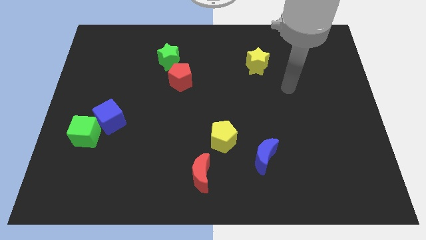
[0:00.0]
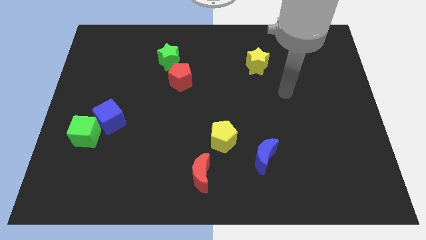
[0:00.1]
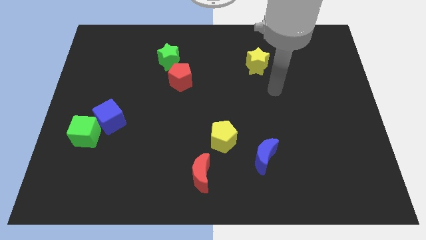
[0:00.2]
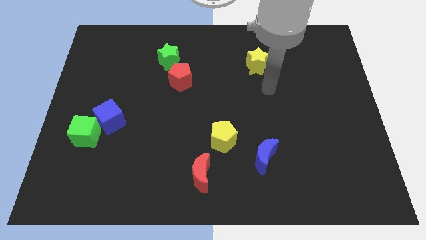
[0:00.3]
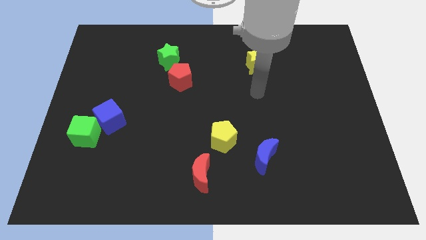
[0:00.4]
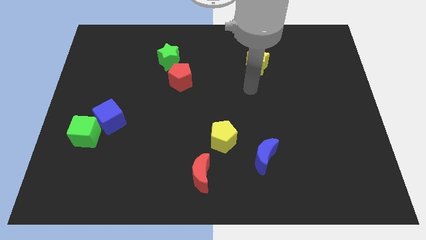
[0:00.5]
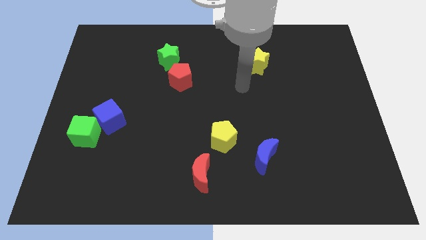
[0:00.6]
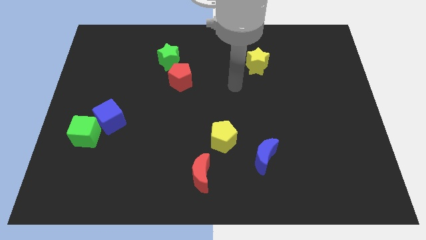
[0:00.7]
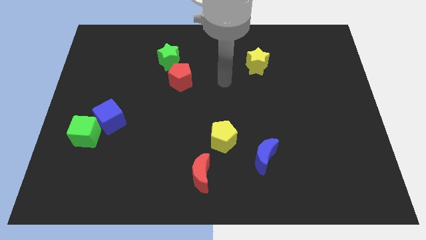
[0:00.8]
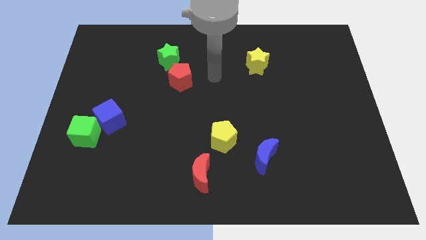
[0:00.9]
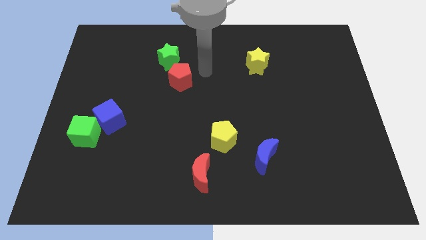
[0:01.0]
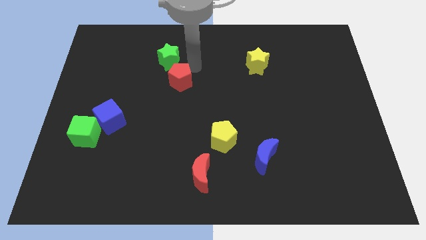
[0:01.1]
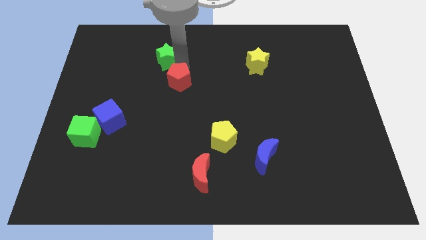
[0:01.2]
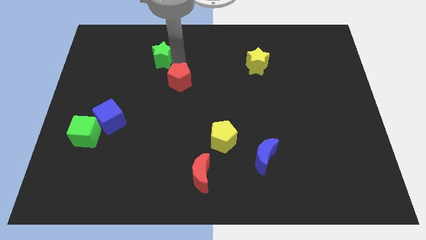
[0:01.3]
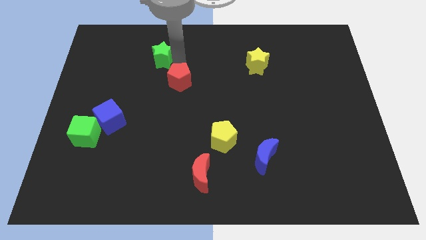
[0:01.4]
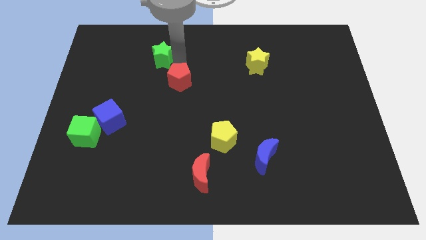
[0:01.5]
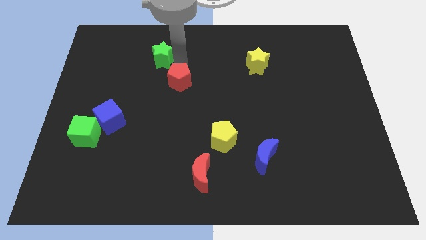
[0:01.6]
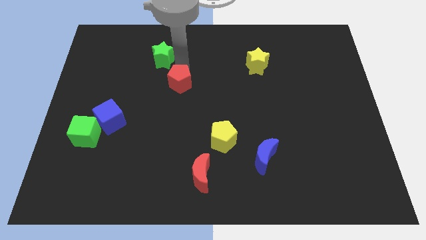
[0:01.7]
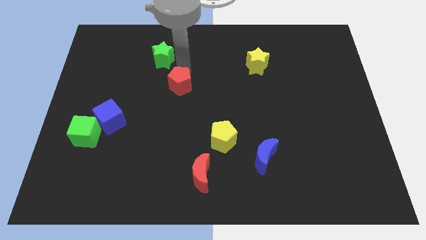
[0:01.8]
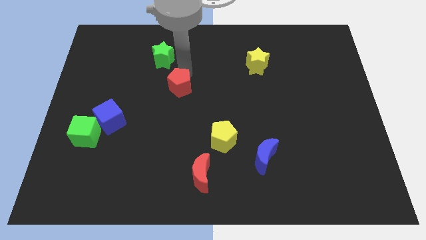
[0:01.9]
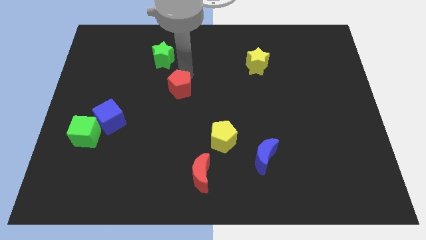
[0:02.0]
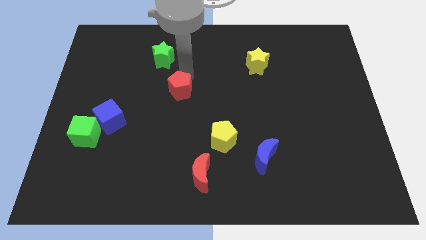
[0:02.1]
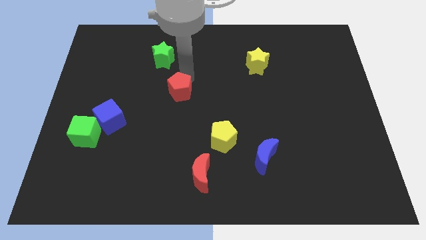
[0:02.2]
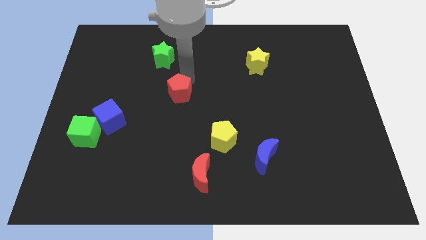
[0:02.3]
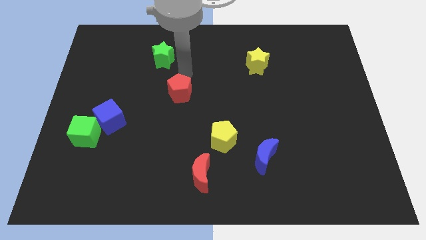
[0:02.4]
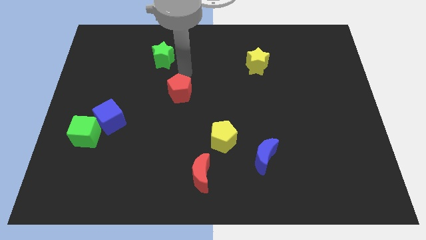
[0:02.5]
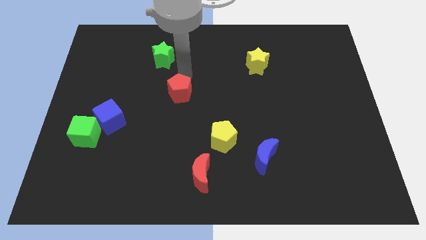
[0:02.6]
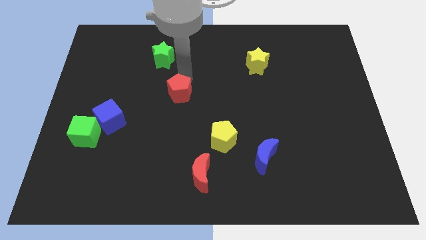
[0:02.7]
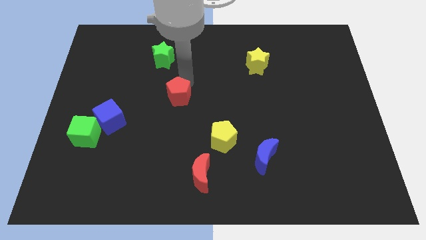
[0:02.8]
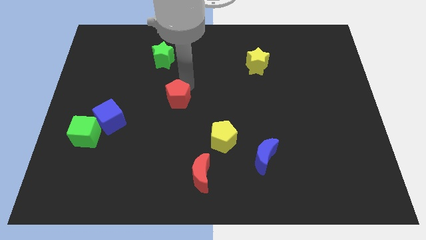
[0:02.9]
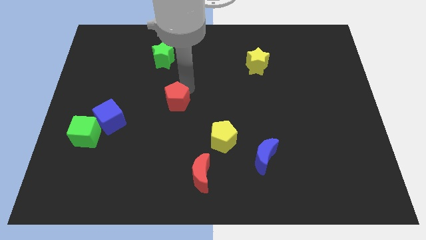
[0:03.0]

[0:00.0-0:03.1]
move the red pentagon down a little bit

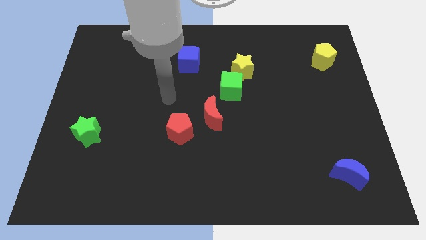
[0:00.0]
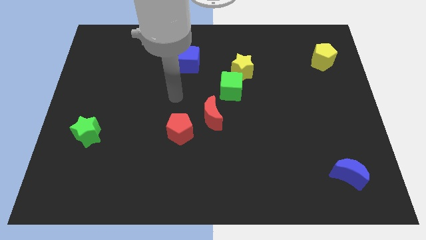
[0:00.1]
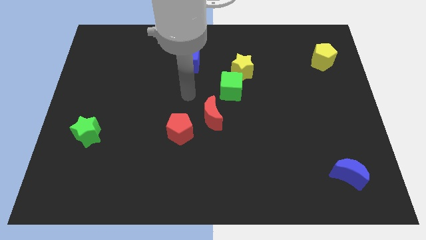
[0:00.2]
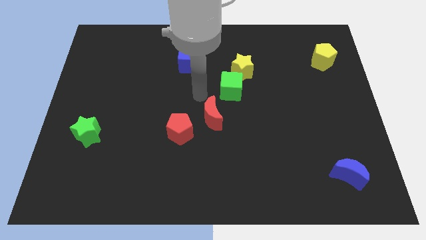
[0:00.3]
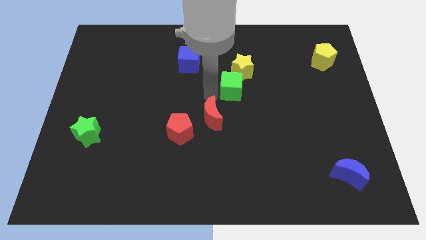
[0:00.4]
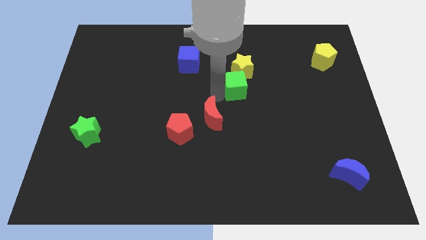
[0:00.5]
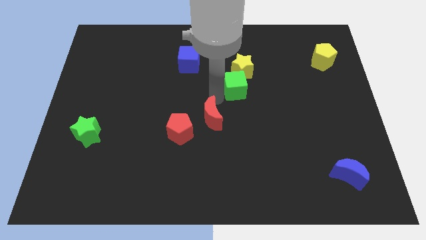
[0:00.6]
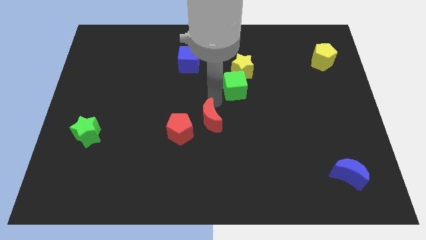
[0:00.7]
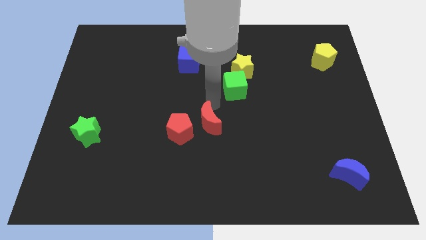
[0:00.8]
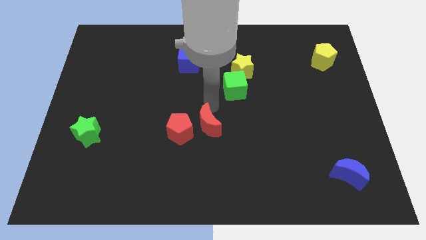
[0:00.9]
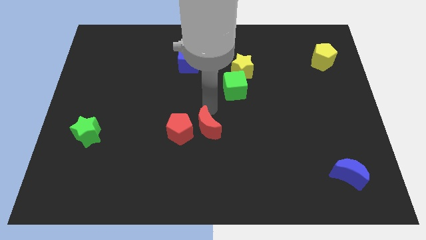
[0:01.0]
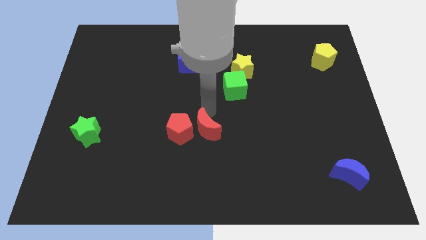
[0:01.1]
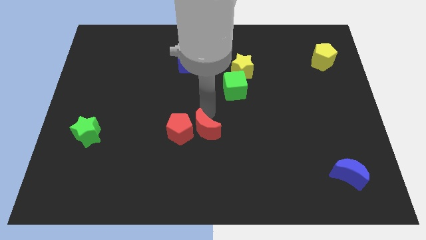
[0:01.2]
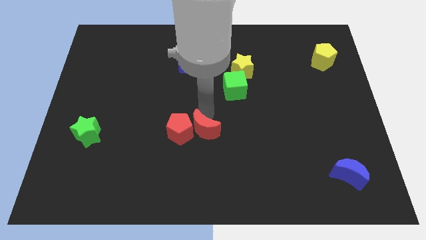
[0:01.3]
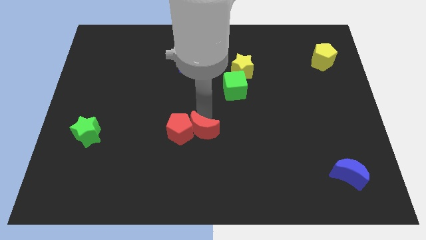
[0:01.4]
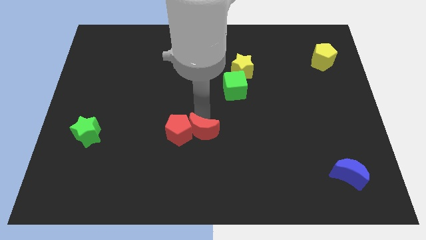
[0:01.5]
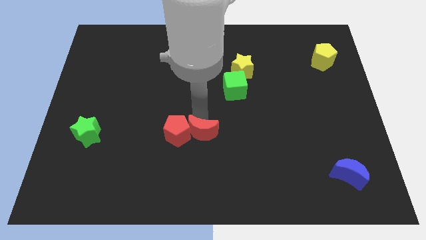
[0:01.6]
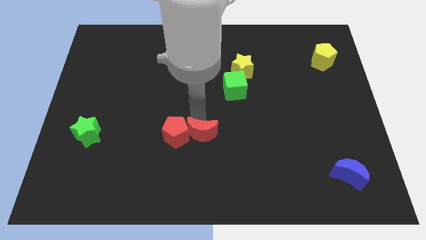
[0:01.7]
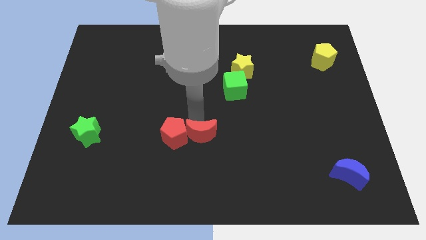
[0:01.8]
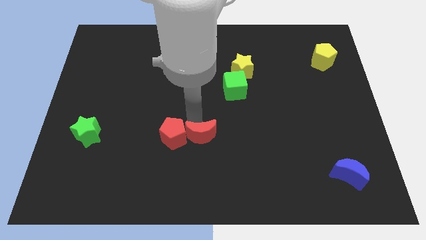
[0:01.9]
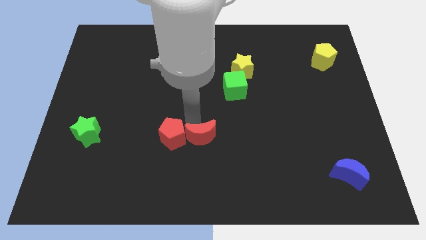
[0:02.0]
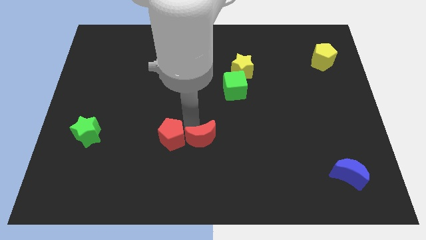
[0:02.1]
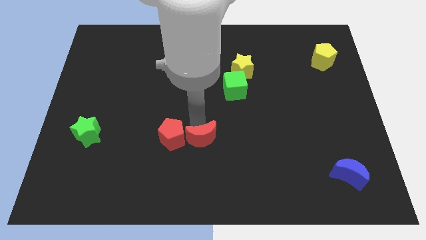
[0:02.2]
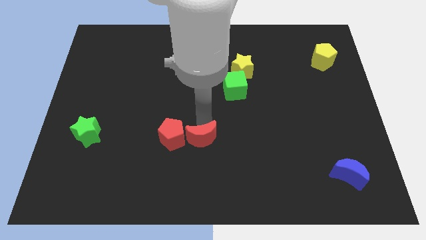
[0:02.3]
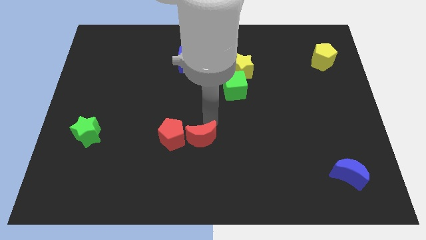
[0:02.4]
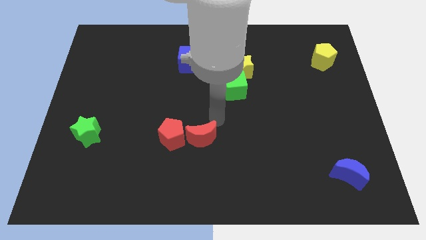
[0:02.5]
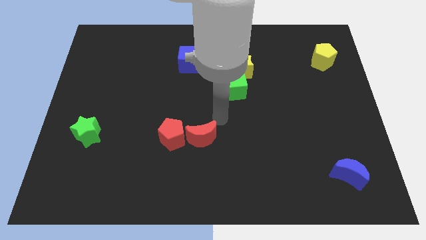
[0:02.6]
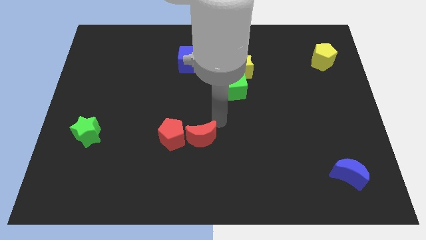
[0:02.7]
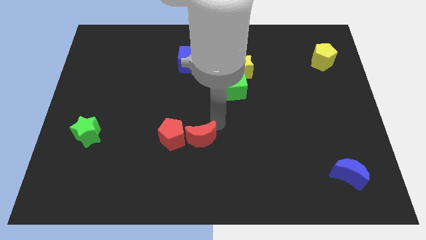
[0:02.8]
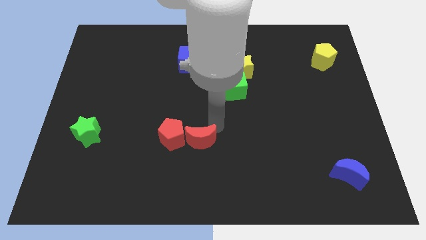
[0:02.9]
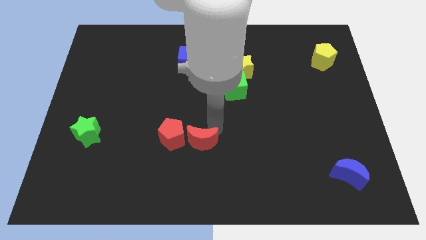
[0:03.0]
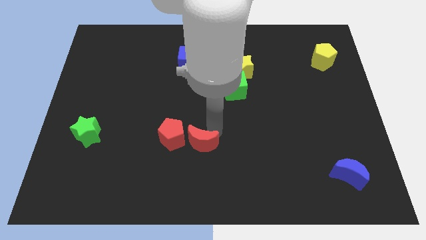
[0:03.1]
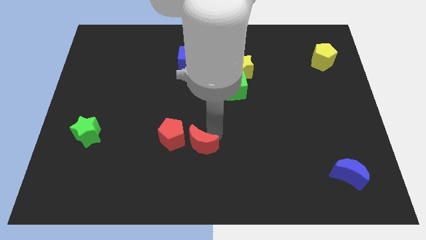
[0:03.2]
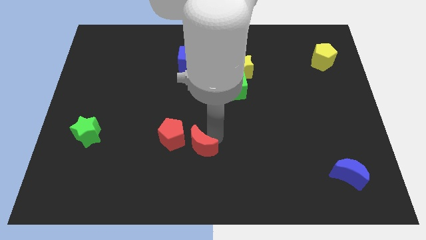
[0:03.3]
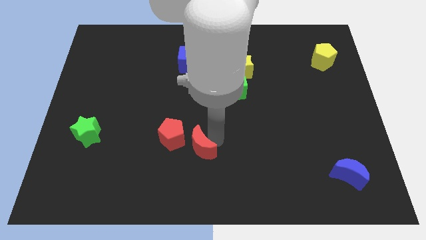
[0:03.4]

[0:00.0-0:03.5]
move the red moon downwards and to the left diagonally a little

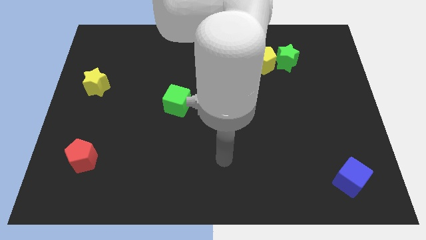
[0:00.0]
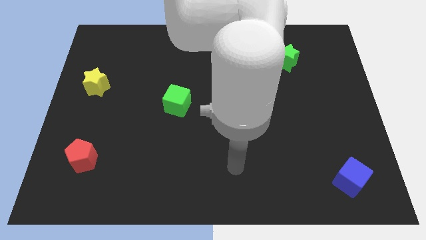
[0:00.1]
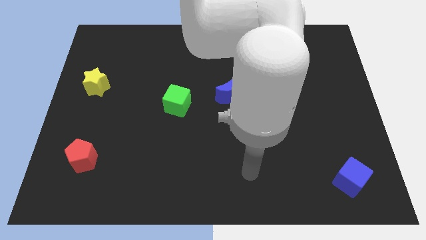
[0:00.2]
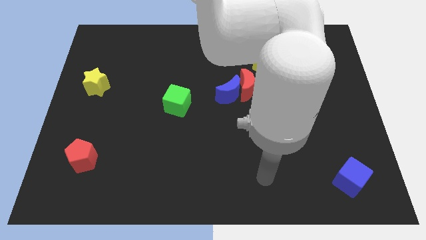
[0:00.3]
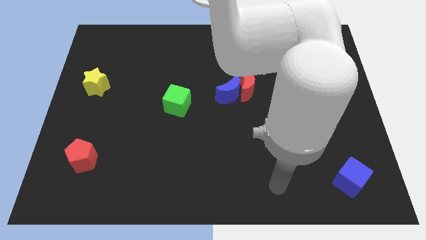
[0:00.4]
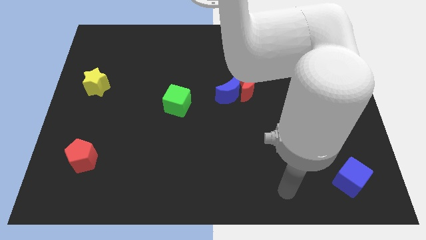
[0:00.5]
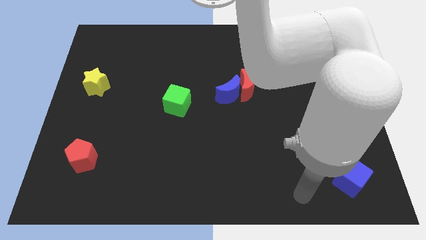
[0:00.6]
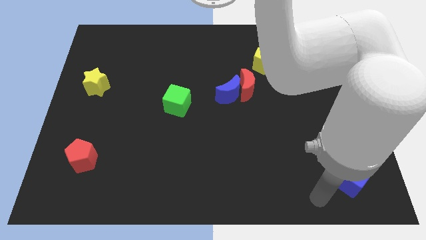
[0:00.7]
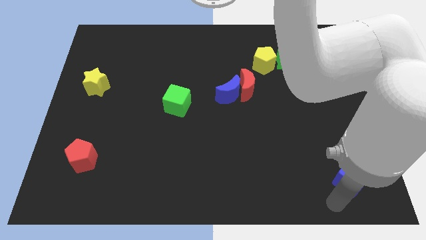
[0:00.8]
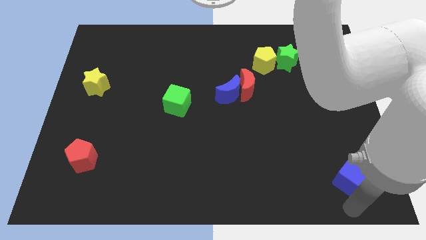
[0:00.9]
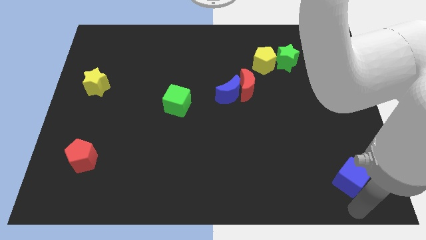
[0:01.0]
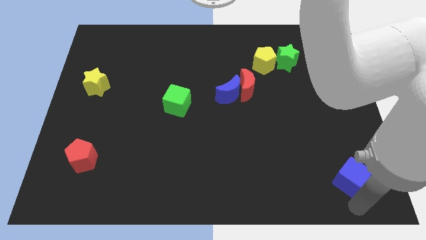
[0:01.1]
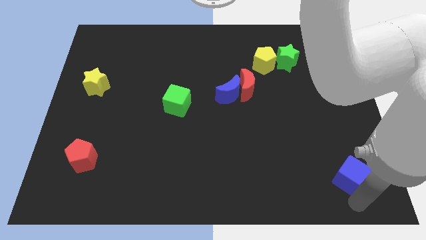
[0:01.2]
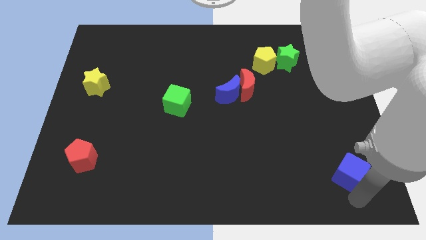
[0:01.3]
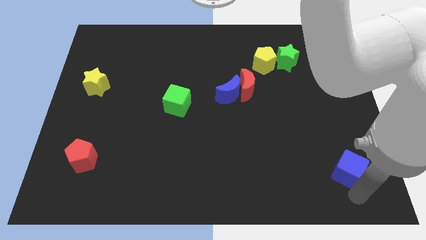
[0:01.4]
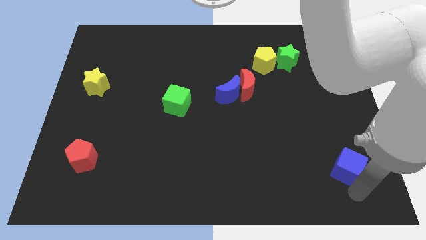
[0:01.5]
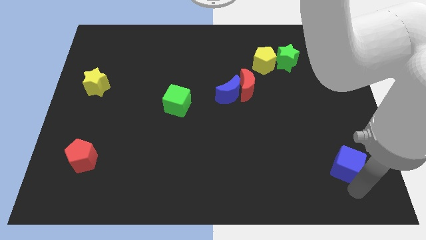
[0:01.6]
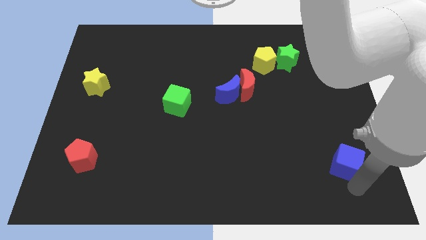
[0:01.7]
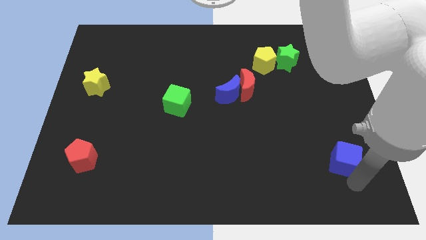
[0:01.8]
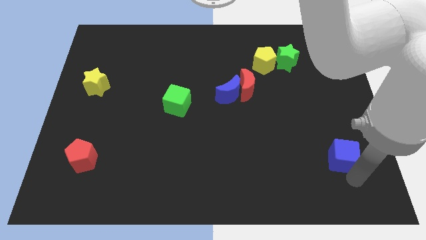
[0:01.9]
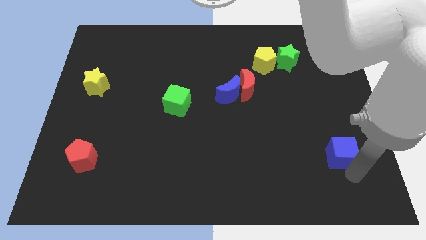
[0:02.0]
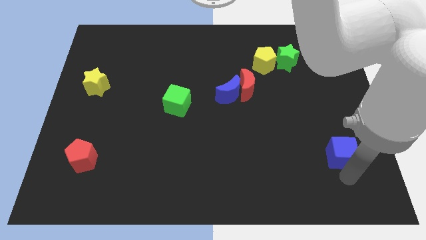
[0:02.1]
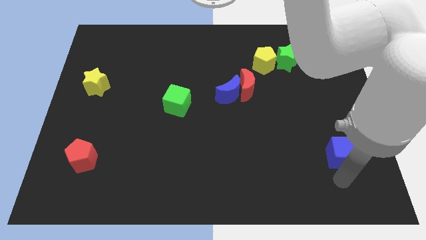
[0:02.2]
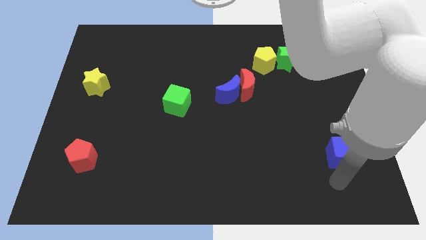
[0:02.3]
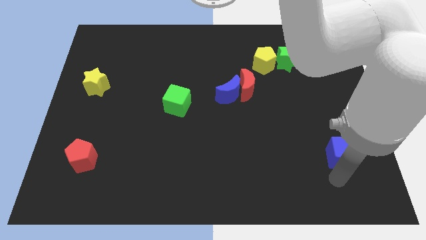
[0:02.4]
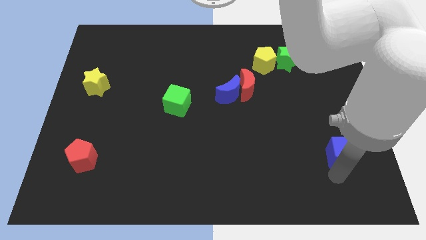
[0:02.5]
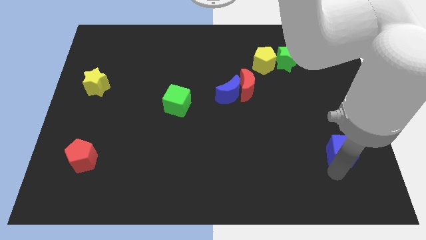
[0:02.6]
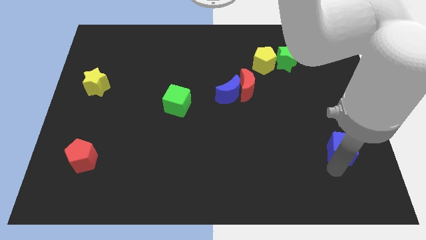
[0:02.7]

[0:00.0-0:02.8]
slightly move the blue cube up
